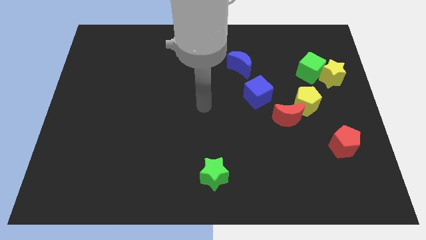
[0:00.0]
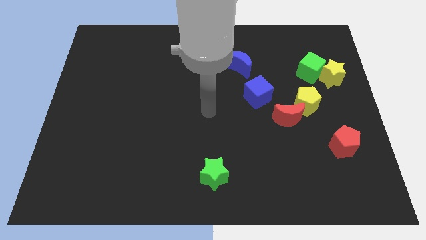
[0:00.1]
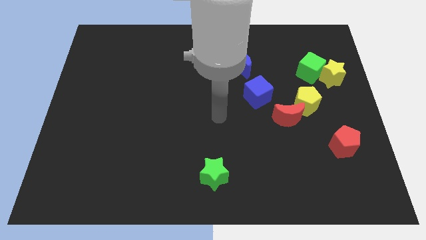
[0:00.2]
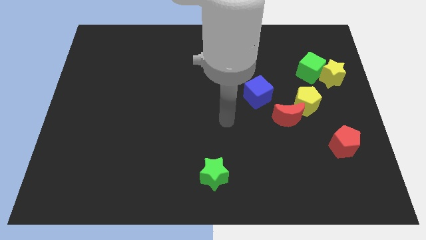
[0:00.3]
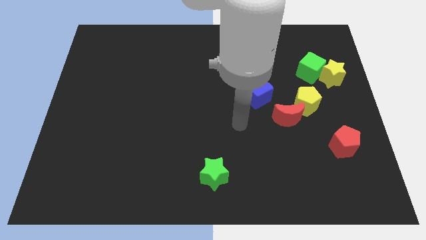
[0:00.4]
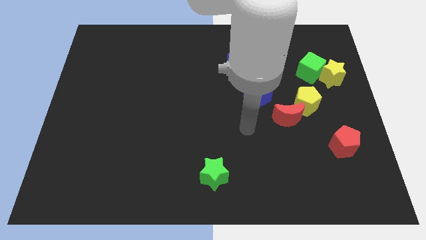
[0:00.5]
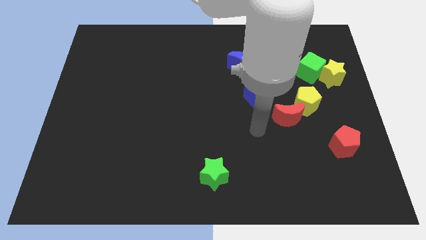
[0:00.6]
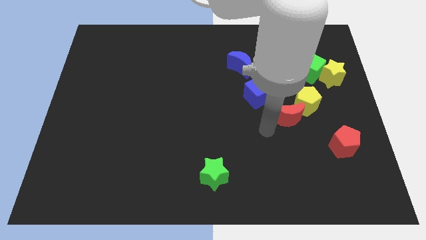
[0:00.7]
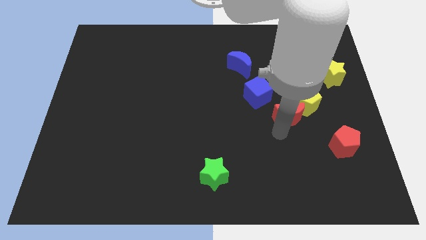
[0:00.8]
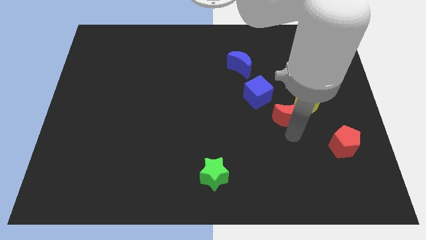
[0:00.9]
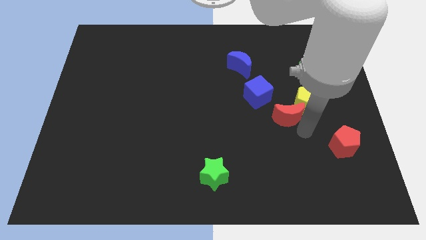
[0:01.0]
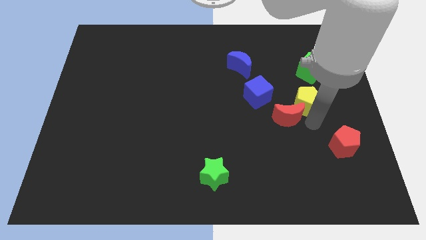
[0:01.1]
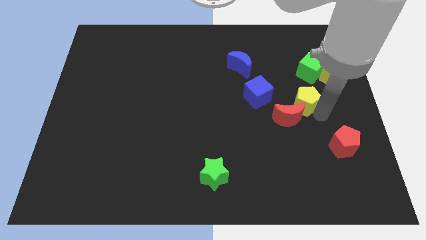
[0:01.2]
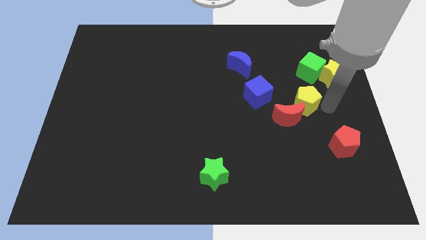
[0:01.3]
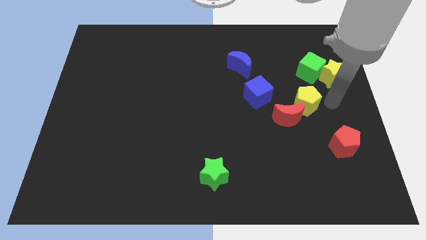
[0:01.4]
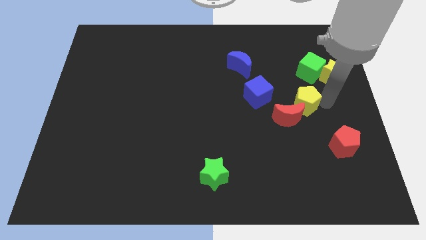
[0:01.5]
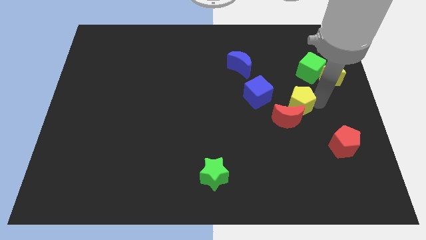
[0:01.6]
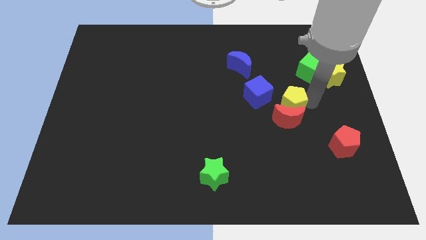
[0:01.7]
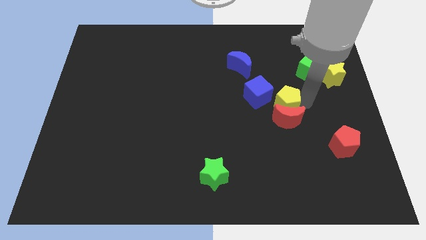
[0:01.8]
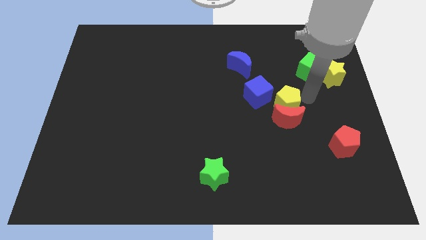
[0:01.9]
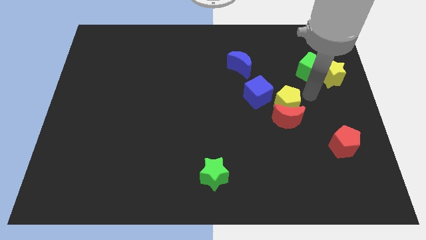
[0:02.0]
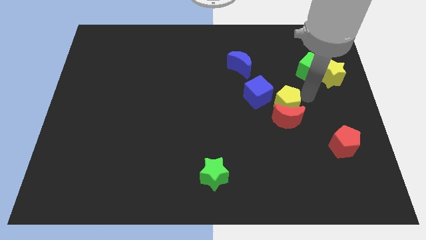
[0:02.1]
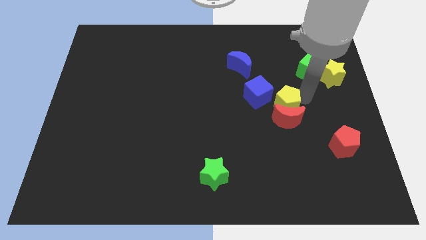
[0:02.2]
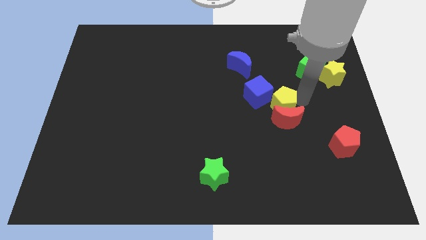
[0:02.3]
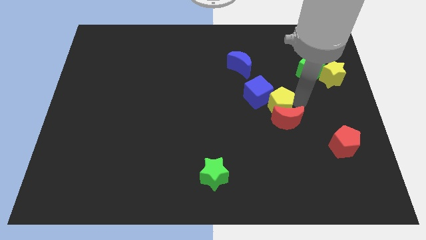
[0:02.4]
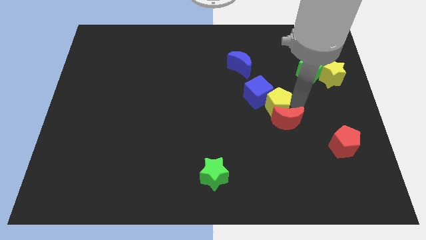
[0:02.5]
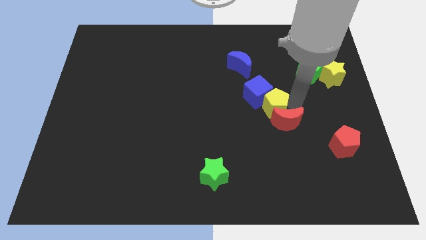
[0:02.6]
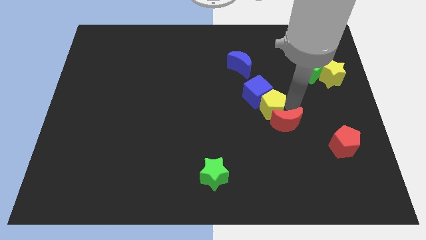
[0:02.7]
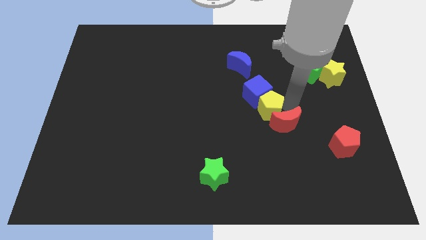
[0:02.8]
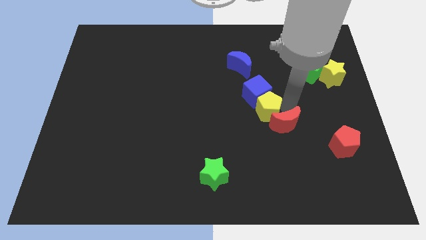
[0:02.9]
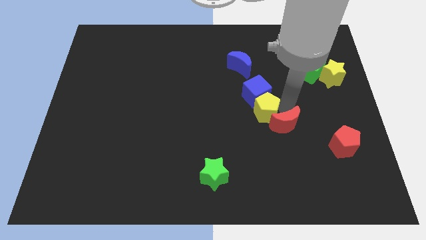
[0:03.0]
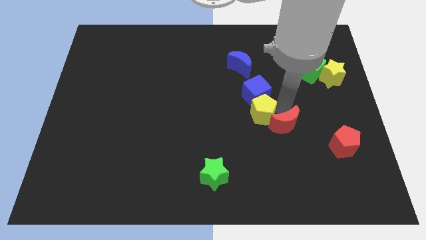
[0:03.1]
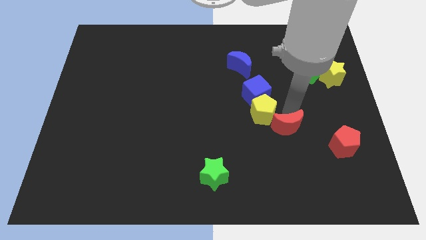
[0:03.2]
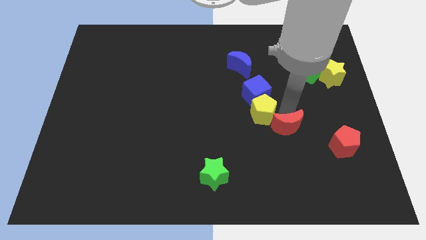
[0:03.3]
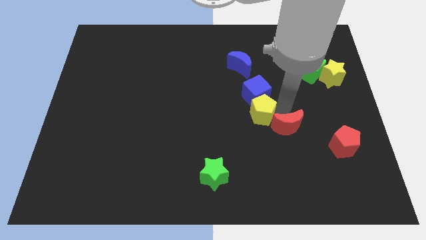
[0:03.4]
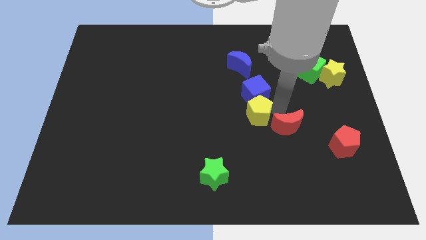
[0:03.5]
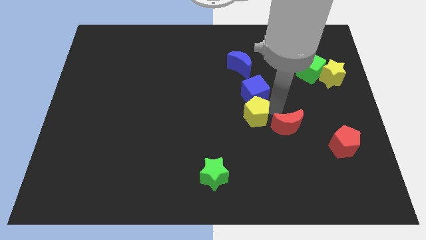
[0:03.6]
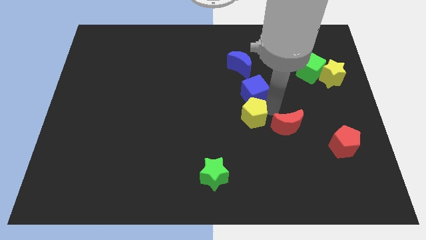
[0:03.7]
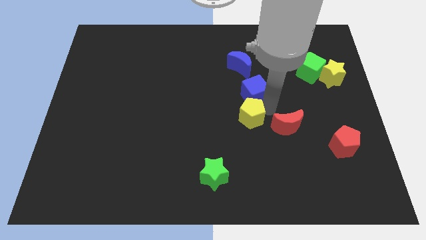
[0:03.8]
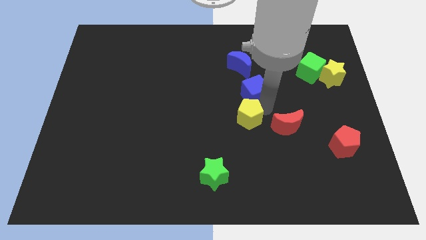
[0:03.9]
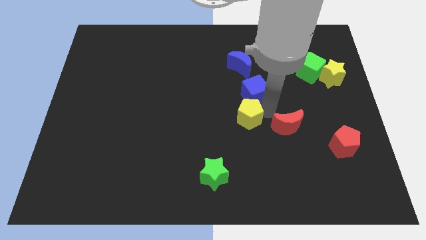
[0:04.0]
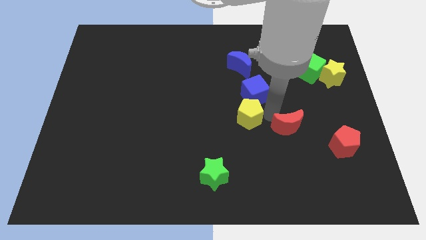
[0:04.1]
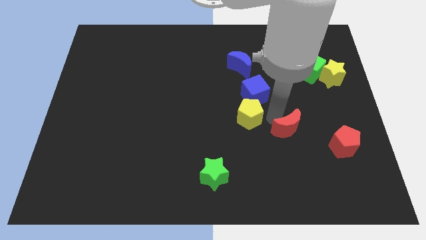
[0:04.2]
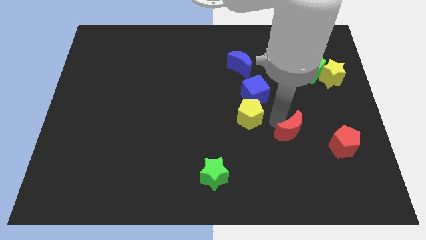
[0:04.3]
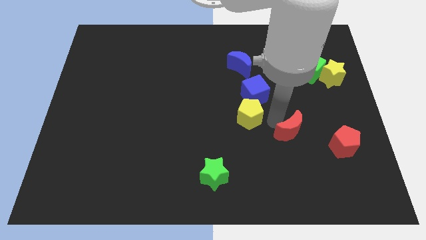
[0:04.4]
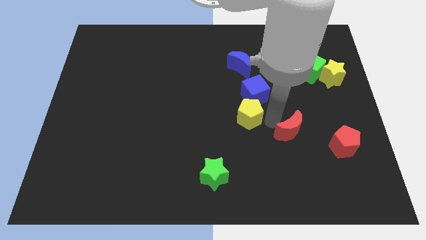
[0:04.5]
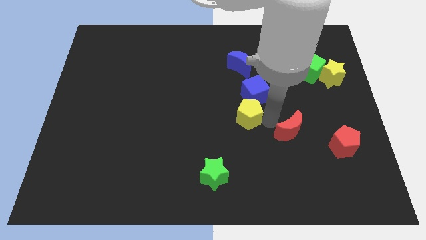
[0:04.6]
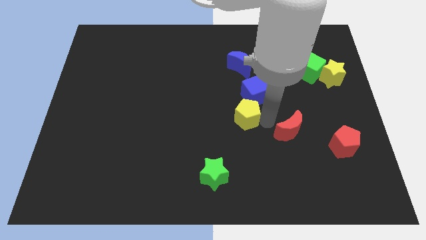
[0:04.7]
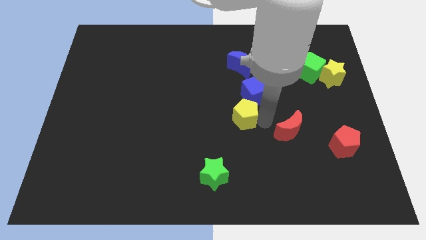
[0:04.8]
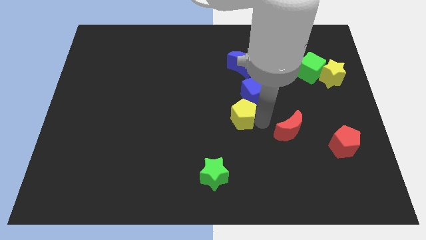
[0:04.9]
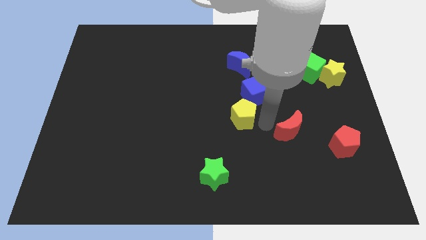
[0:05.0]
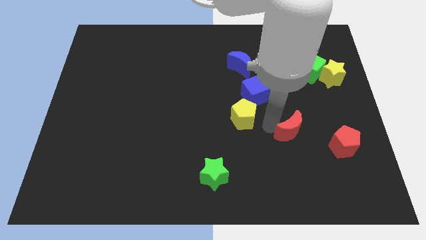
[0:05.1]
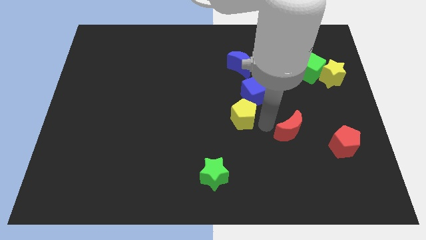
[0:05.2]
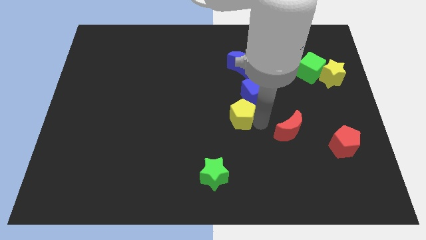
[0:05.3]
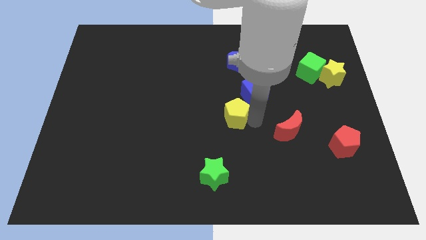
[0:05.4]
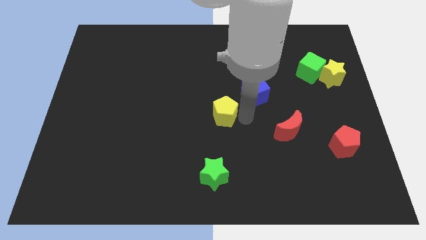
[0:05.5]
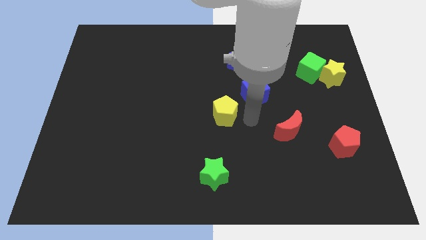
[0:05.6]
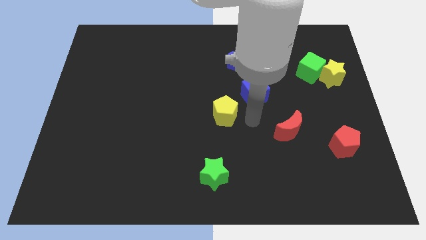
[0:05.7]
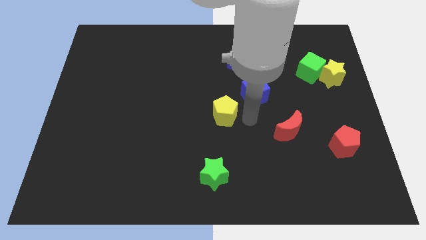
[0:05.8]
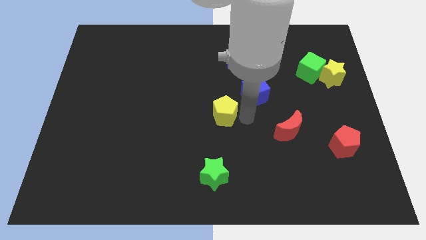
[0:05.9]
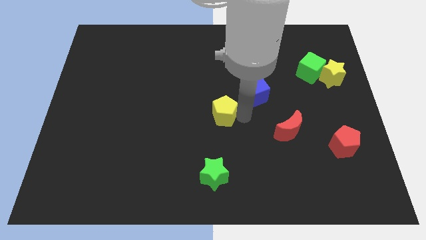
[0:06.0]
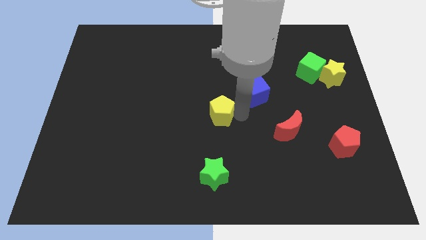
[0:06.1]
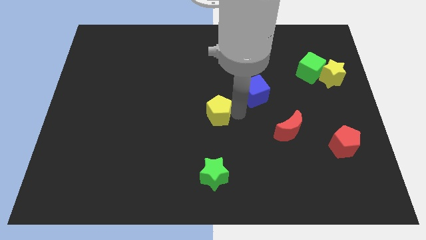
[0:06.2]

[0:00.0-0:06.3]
push the yellow pentagon left

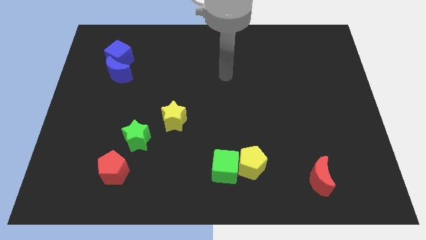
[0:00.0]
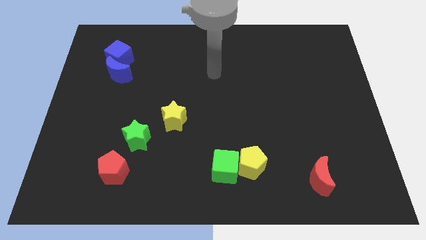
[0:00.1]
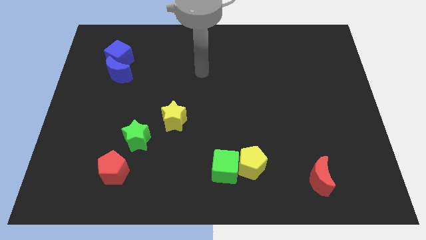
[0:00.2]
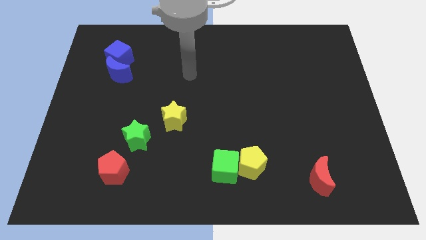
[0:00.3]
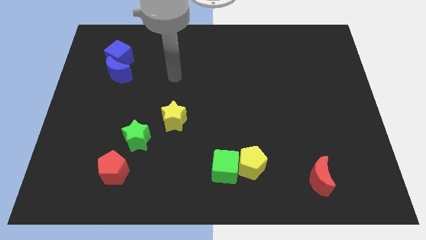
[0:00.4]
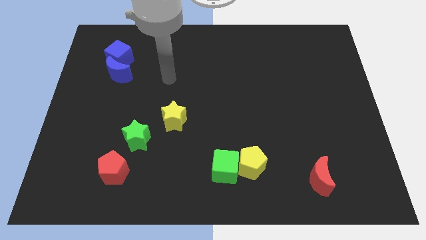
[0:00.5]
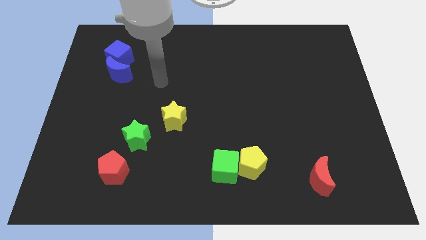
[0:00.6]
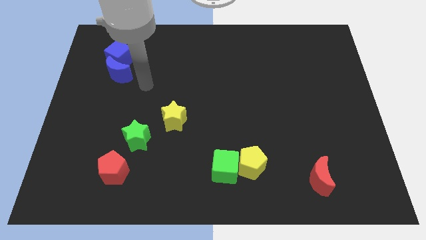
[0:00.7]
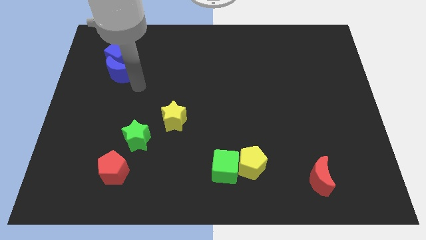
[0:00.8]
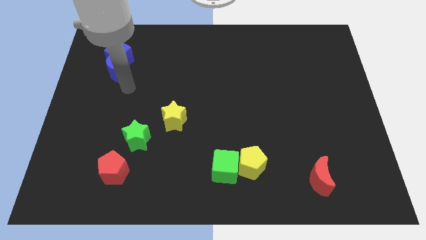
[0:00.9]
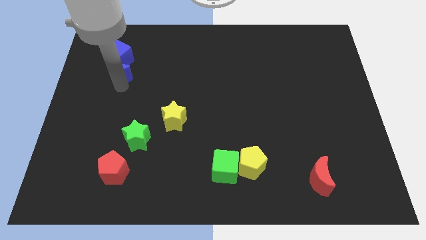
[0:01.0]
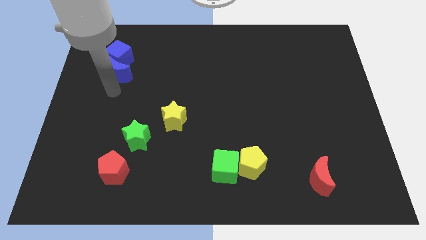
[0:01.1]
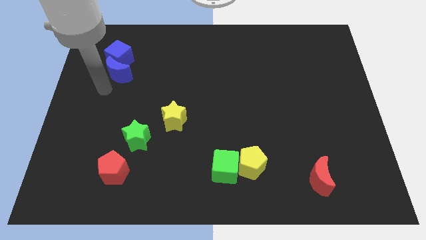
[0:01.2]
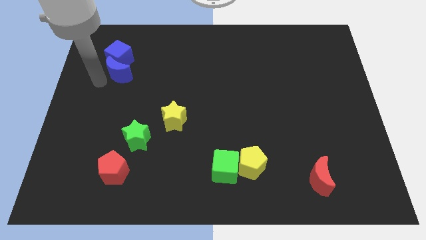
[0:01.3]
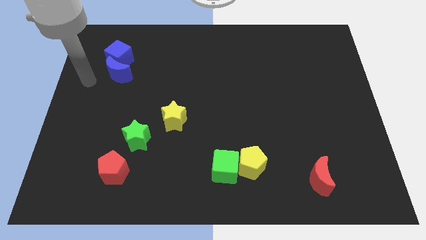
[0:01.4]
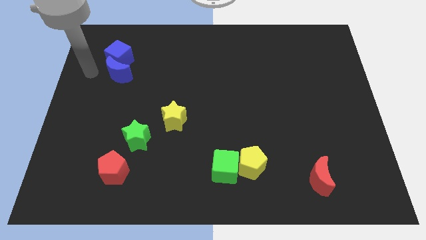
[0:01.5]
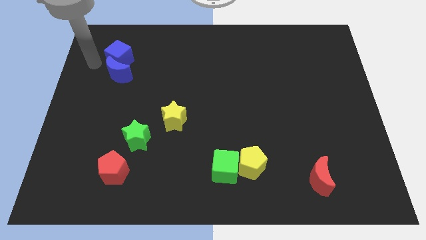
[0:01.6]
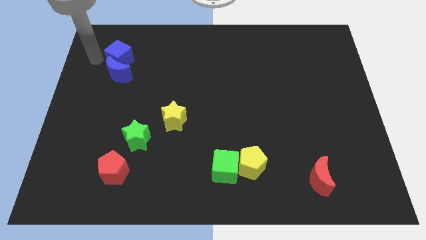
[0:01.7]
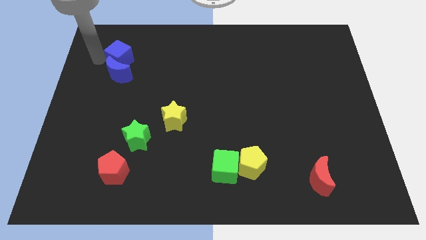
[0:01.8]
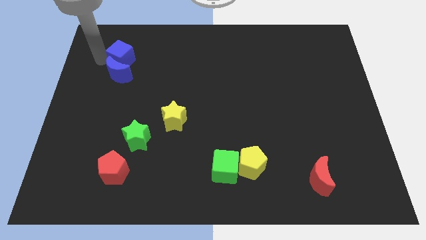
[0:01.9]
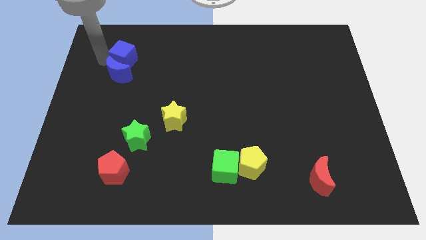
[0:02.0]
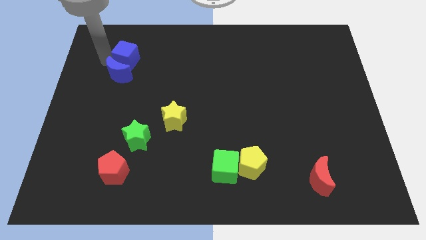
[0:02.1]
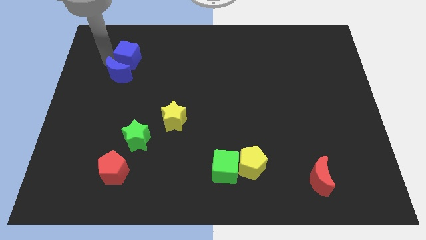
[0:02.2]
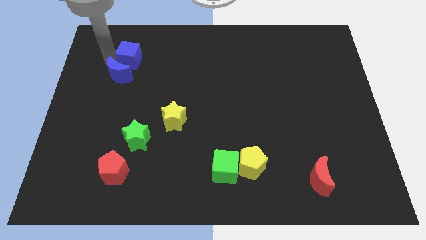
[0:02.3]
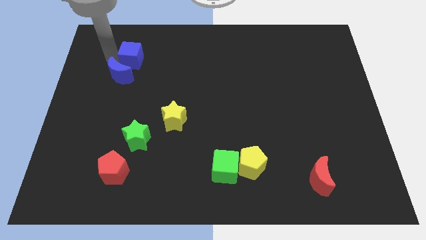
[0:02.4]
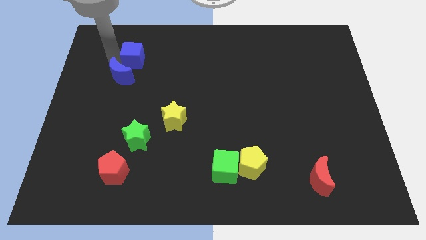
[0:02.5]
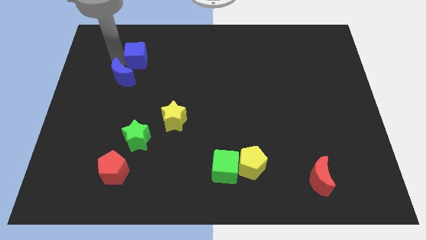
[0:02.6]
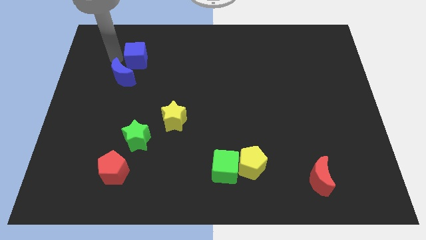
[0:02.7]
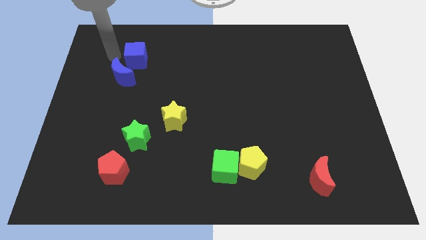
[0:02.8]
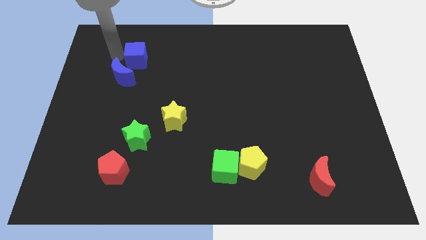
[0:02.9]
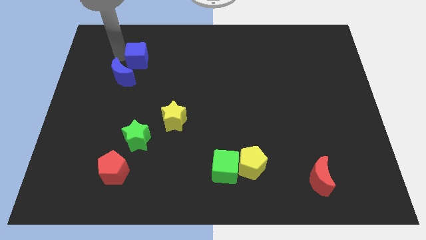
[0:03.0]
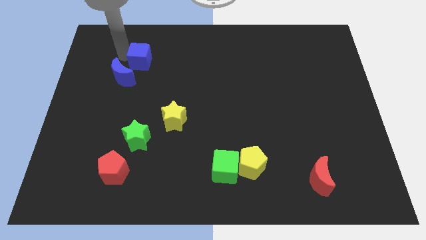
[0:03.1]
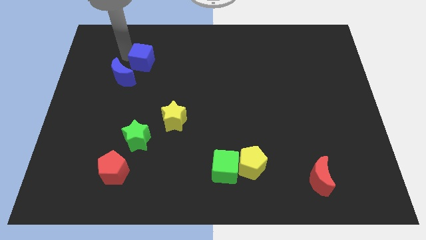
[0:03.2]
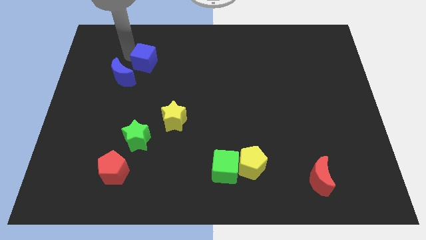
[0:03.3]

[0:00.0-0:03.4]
slide the blue cube slightly right
